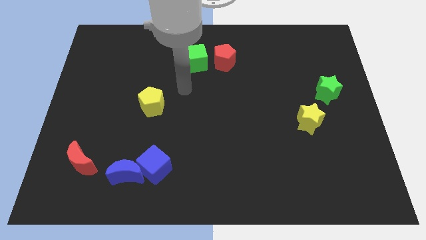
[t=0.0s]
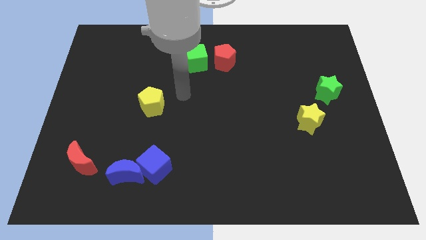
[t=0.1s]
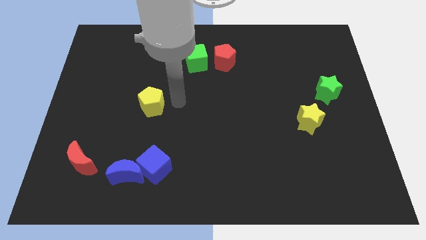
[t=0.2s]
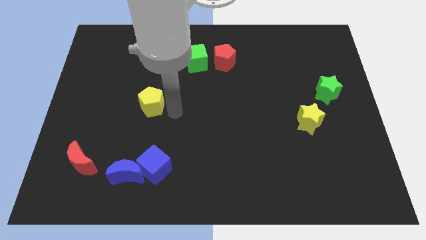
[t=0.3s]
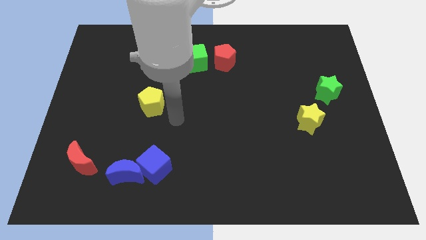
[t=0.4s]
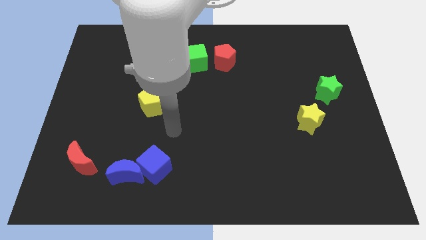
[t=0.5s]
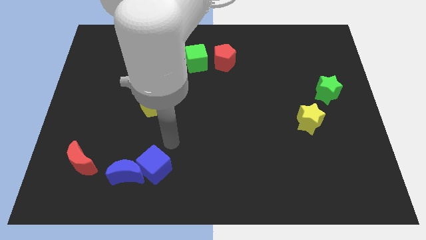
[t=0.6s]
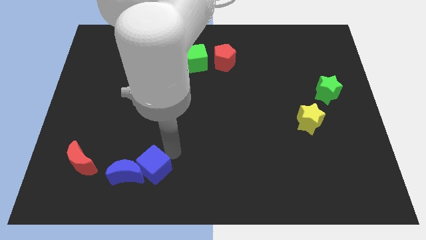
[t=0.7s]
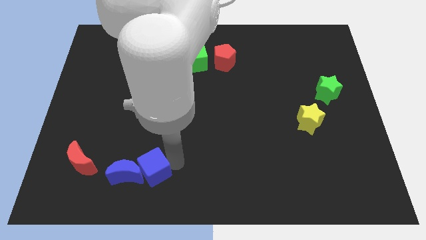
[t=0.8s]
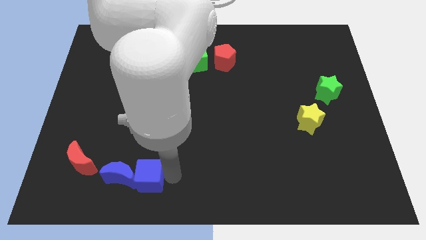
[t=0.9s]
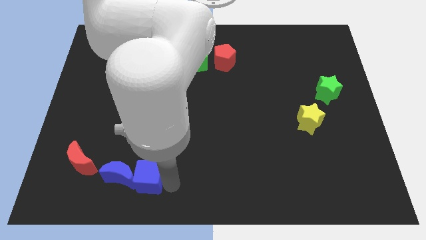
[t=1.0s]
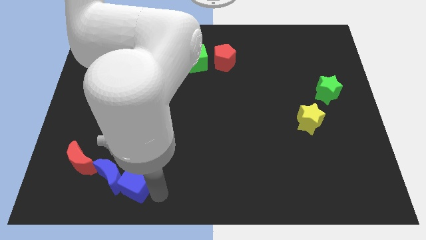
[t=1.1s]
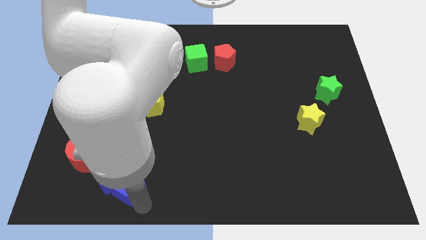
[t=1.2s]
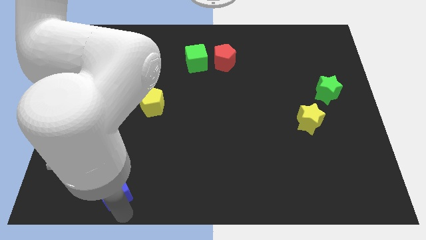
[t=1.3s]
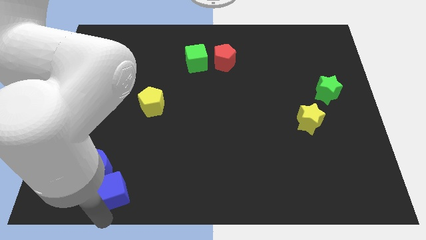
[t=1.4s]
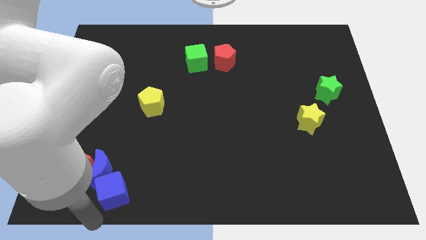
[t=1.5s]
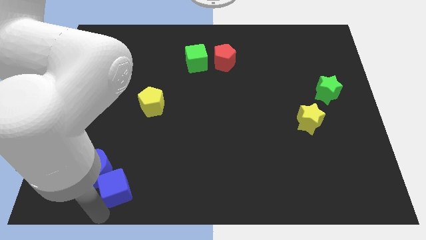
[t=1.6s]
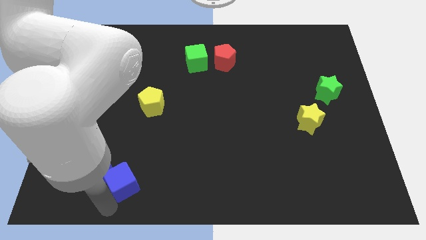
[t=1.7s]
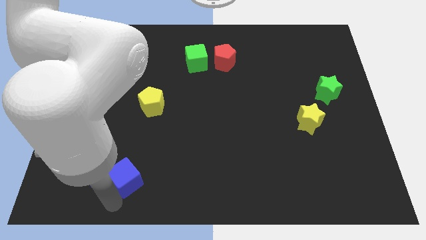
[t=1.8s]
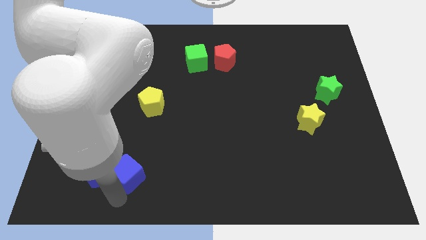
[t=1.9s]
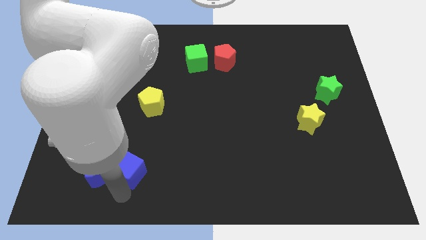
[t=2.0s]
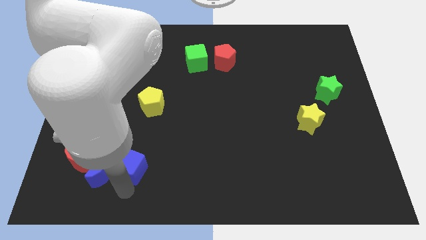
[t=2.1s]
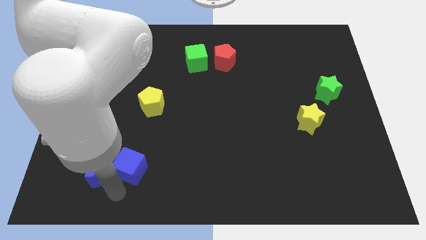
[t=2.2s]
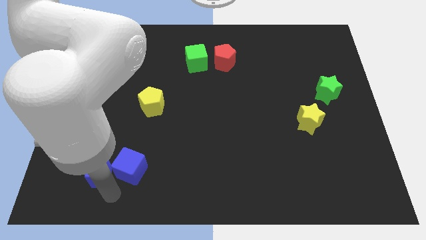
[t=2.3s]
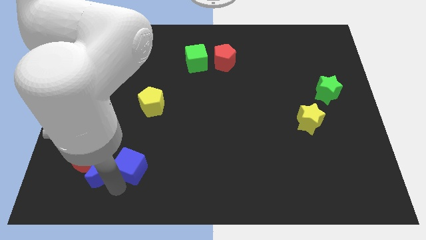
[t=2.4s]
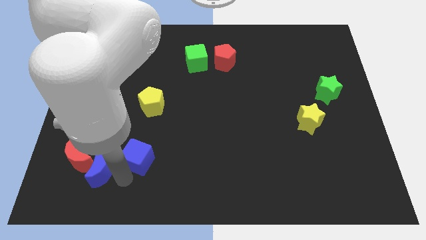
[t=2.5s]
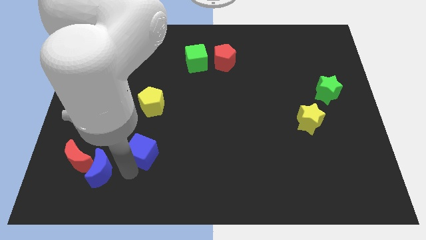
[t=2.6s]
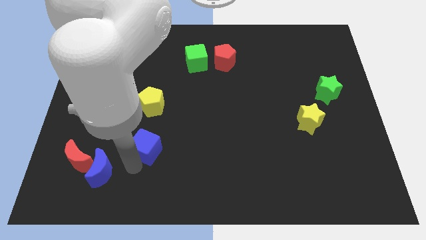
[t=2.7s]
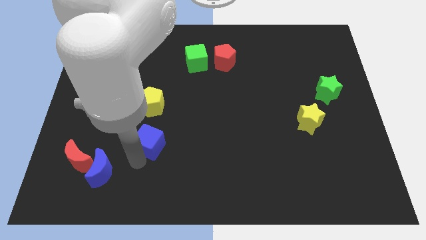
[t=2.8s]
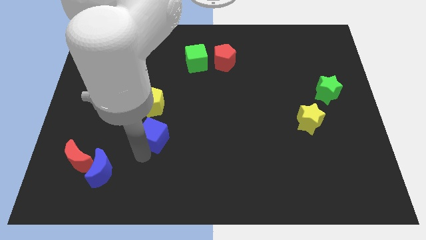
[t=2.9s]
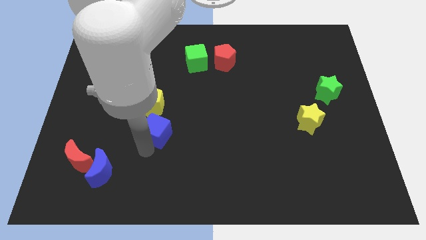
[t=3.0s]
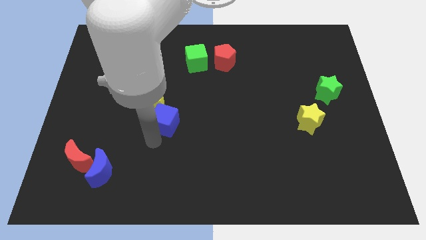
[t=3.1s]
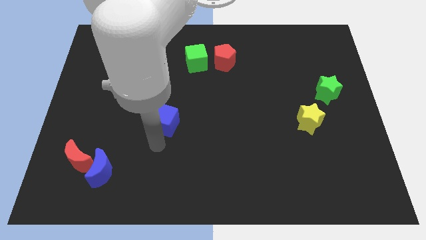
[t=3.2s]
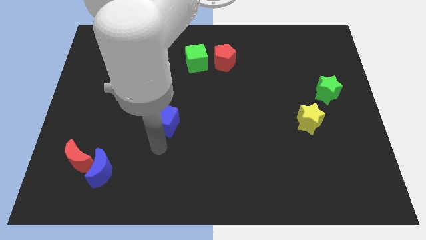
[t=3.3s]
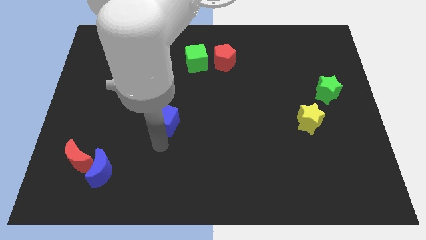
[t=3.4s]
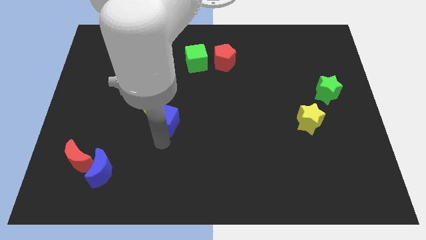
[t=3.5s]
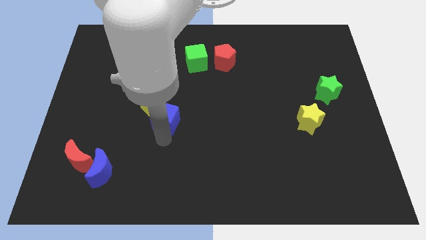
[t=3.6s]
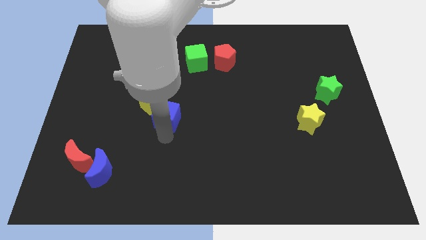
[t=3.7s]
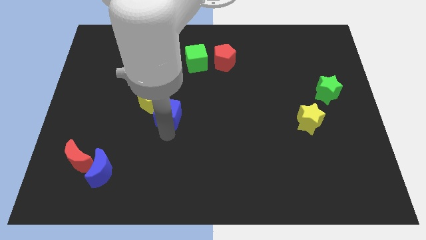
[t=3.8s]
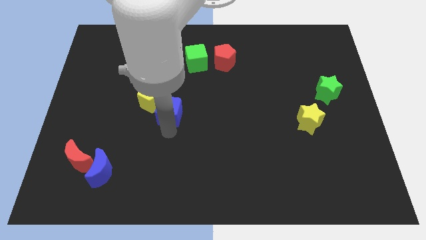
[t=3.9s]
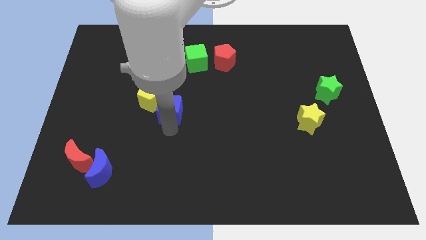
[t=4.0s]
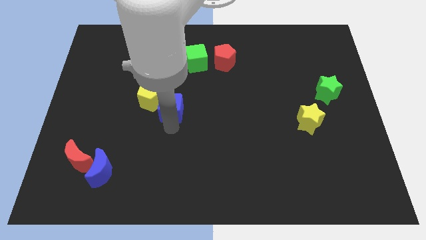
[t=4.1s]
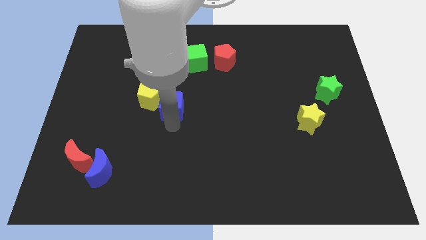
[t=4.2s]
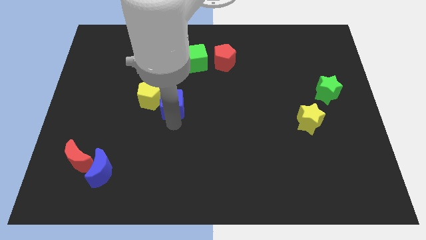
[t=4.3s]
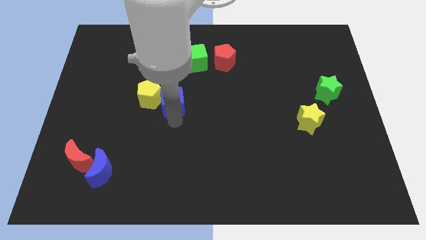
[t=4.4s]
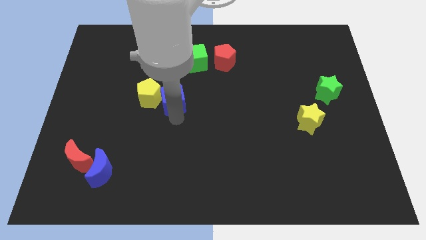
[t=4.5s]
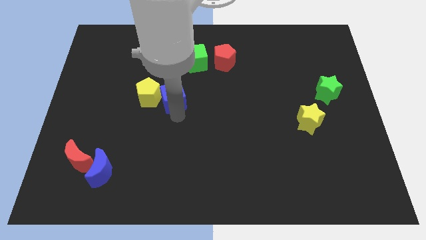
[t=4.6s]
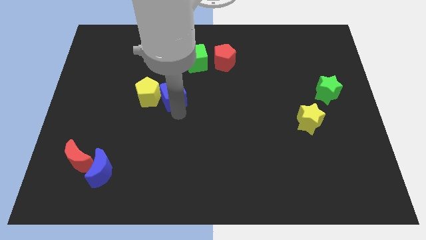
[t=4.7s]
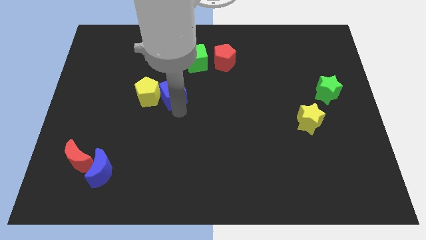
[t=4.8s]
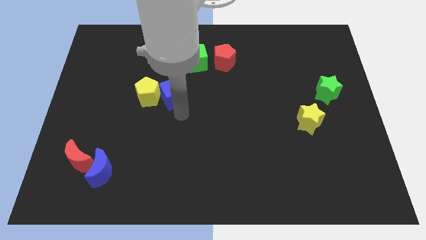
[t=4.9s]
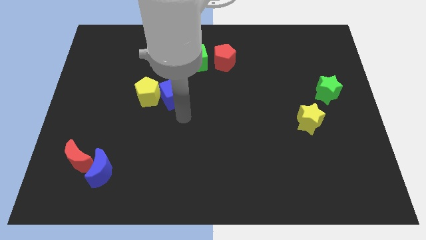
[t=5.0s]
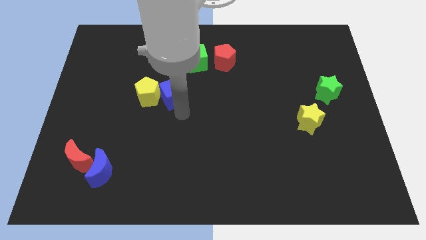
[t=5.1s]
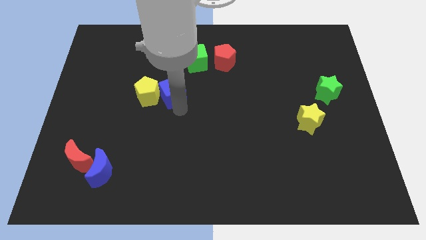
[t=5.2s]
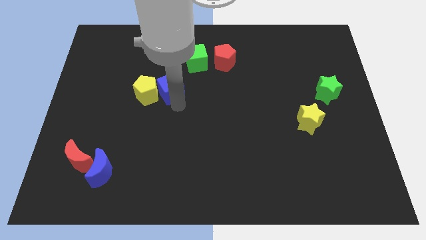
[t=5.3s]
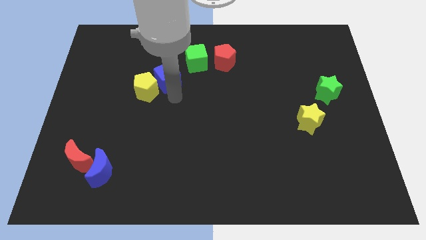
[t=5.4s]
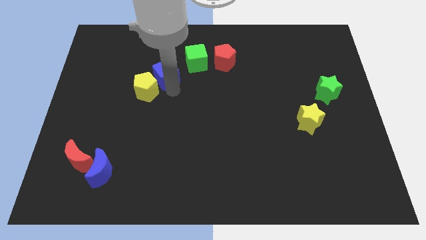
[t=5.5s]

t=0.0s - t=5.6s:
move the blue cube to the top of the yellow pentagon

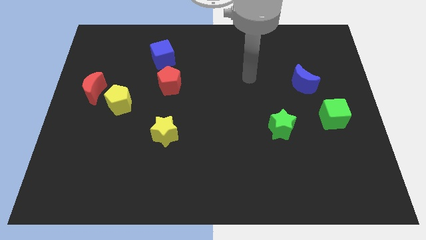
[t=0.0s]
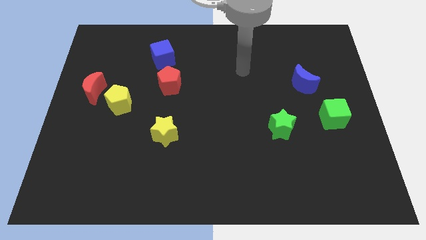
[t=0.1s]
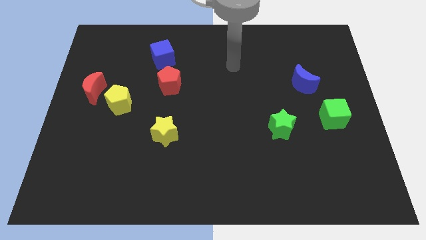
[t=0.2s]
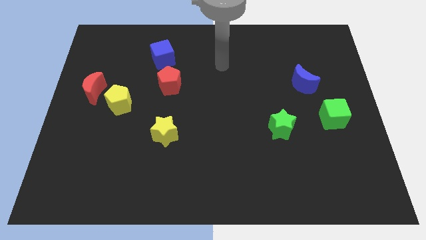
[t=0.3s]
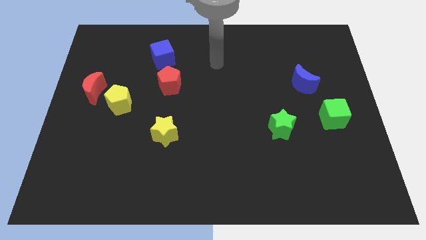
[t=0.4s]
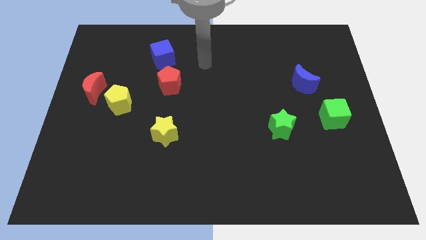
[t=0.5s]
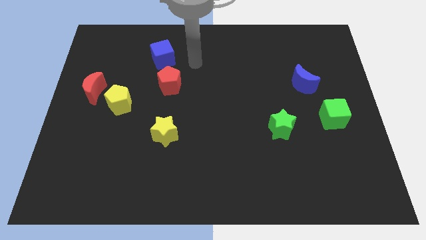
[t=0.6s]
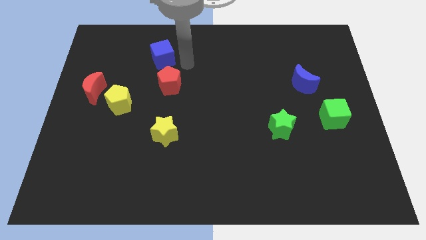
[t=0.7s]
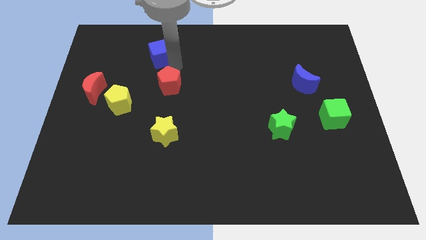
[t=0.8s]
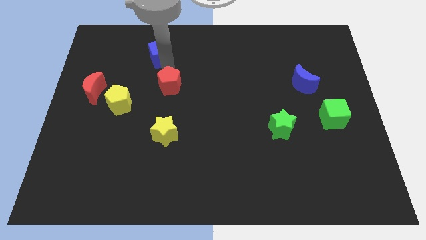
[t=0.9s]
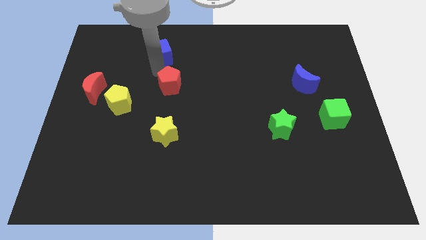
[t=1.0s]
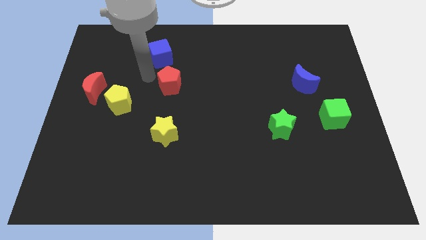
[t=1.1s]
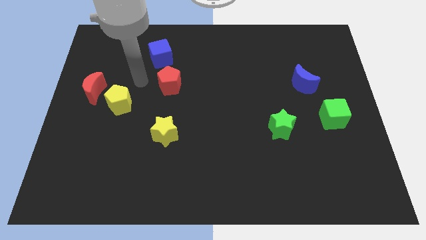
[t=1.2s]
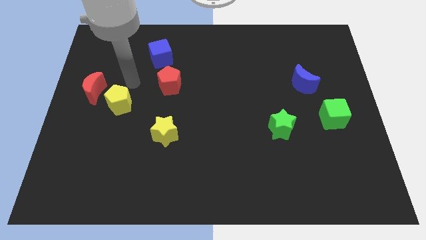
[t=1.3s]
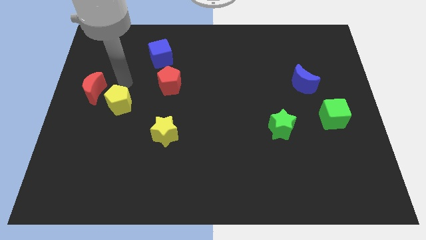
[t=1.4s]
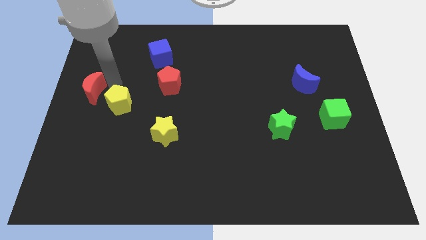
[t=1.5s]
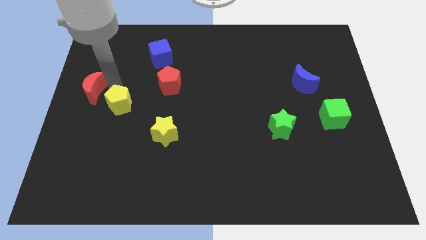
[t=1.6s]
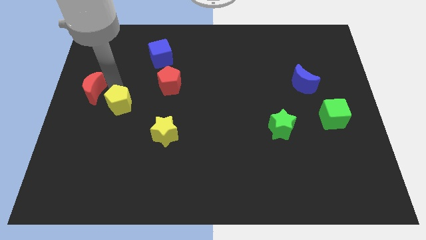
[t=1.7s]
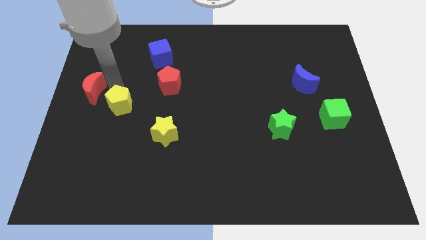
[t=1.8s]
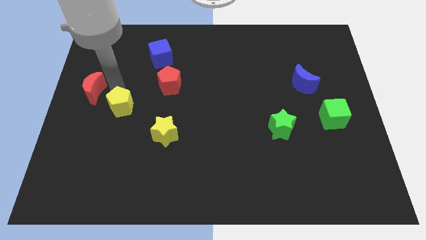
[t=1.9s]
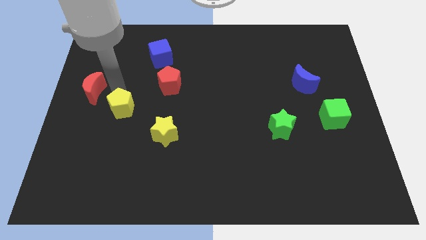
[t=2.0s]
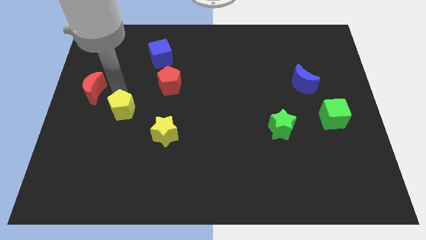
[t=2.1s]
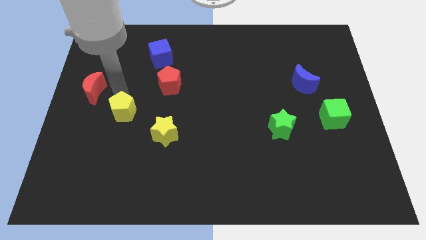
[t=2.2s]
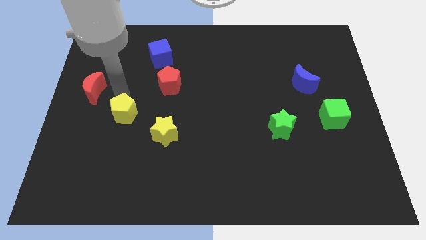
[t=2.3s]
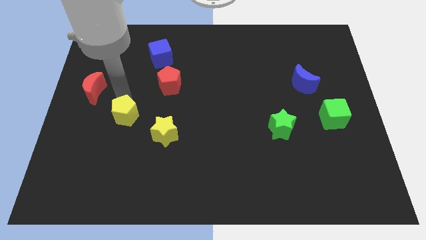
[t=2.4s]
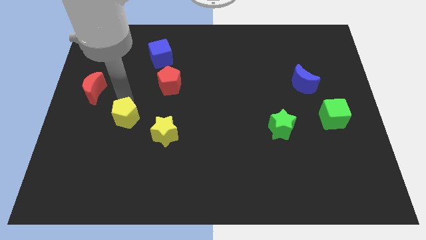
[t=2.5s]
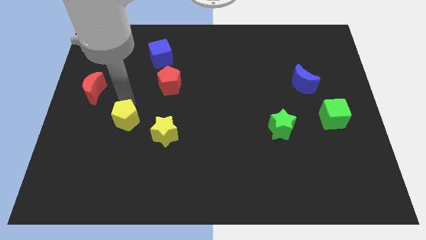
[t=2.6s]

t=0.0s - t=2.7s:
move the yellow pentagon to the left of the yellow star
